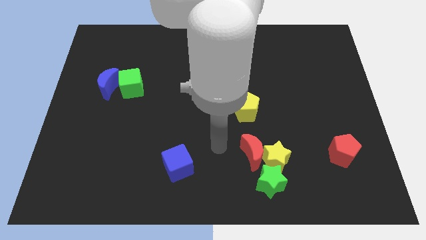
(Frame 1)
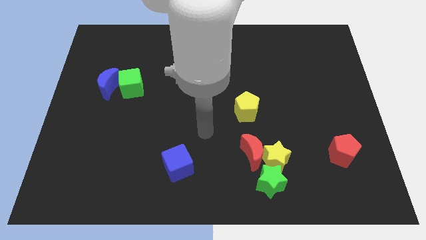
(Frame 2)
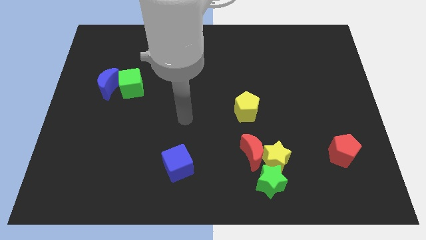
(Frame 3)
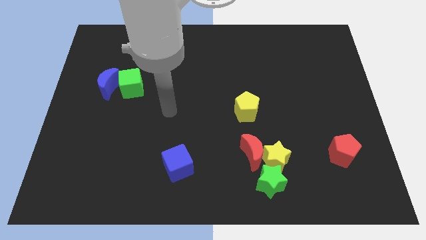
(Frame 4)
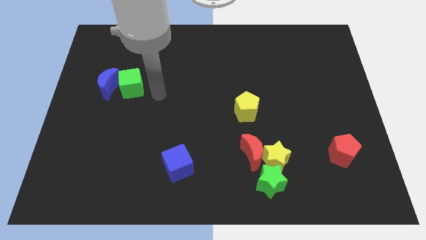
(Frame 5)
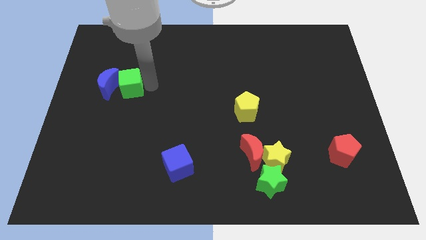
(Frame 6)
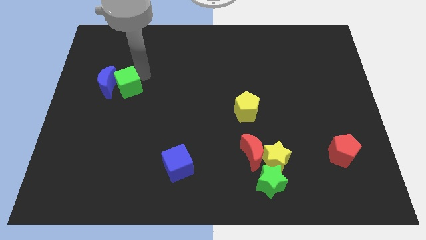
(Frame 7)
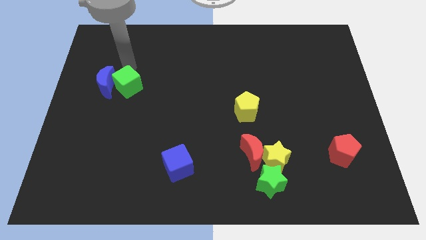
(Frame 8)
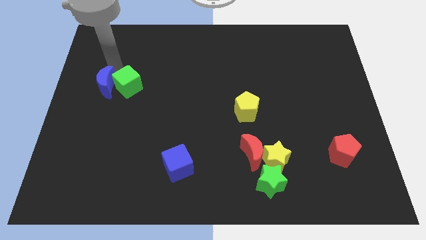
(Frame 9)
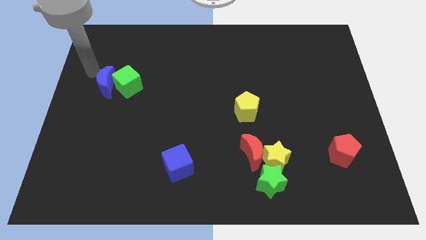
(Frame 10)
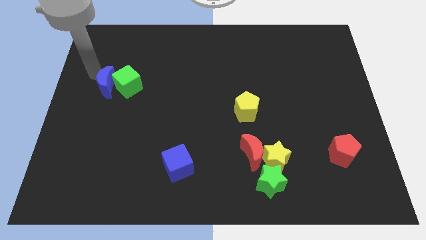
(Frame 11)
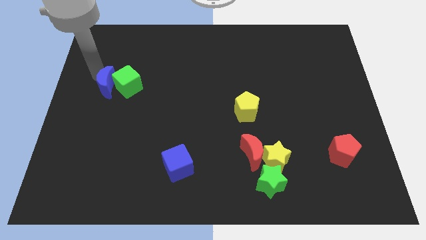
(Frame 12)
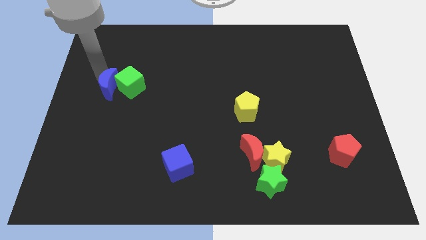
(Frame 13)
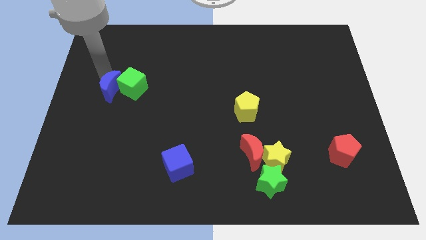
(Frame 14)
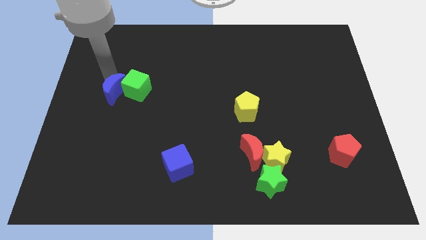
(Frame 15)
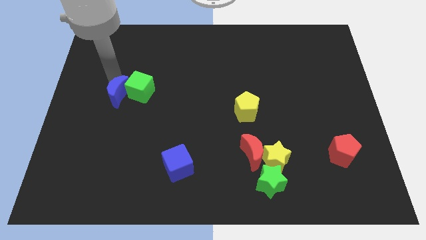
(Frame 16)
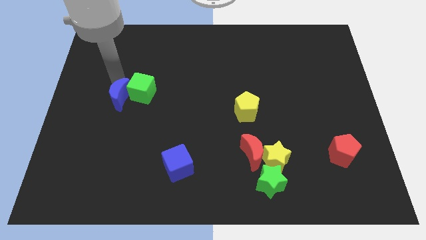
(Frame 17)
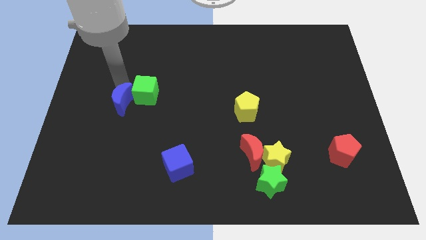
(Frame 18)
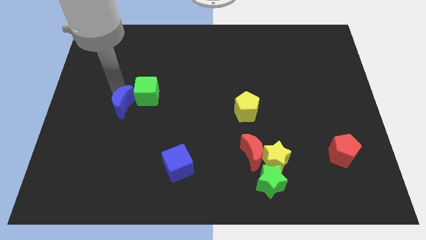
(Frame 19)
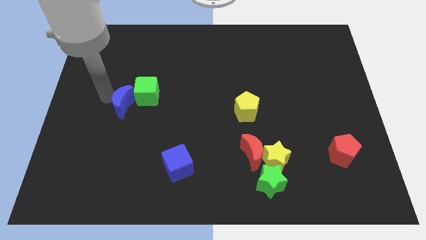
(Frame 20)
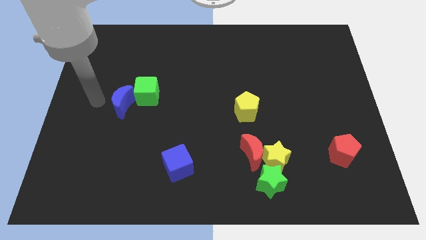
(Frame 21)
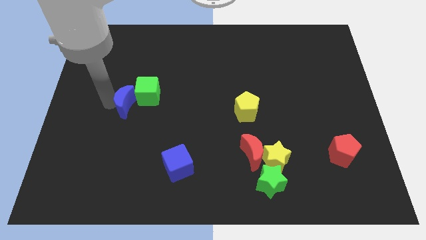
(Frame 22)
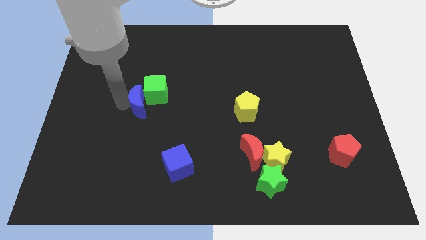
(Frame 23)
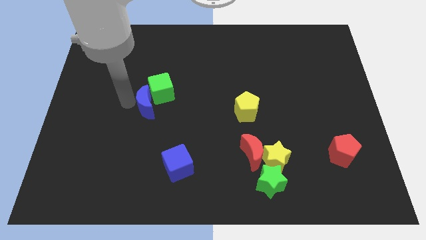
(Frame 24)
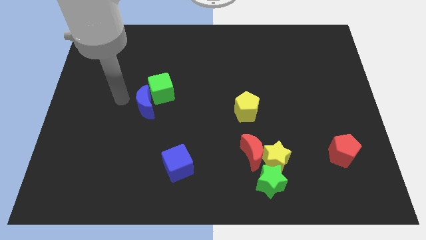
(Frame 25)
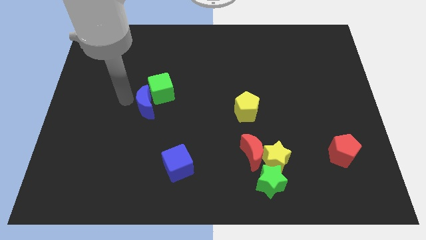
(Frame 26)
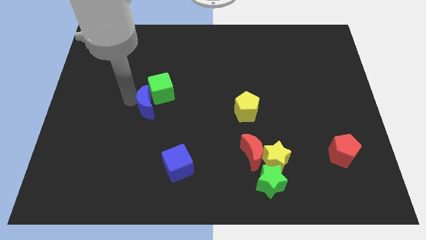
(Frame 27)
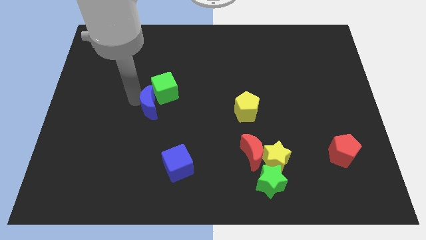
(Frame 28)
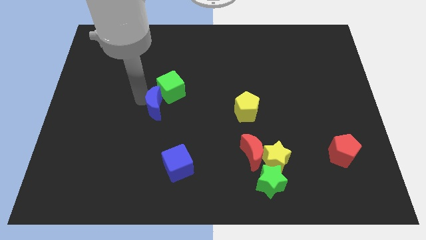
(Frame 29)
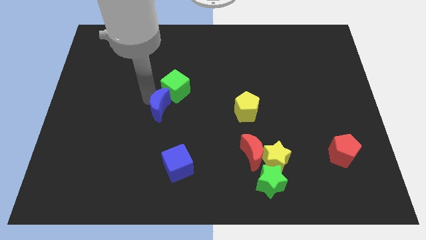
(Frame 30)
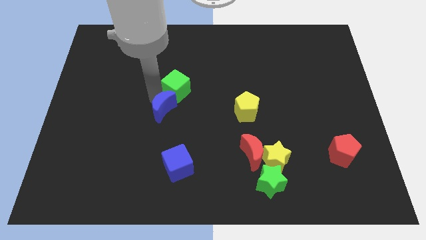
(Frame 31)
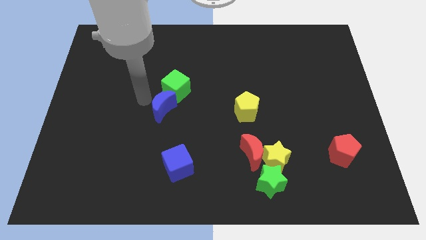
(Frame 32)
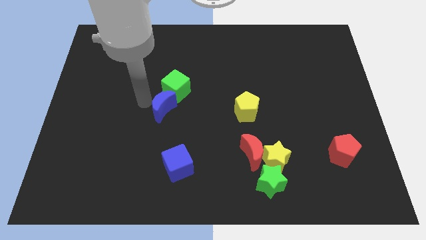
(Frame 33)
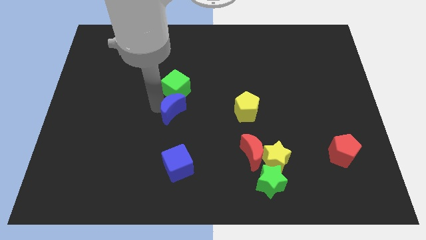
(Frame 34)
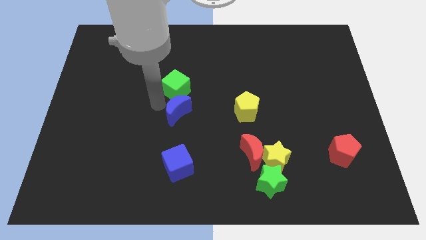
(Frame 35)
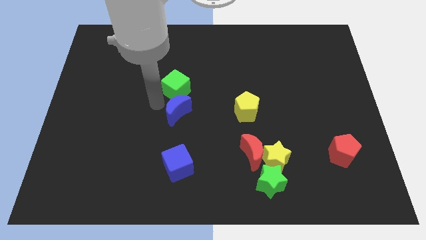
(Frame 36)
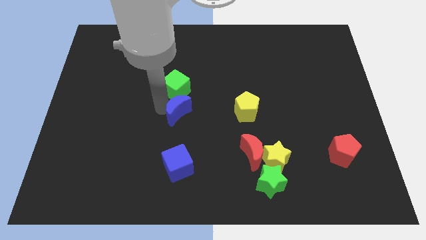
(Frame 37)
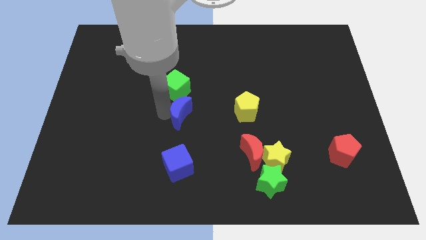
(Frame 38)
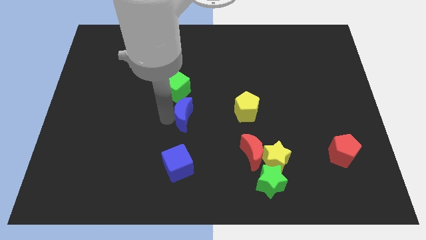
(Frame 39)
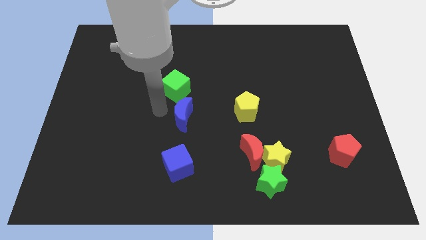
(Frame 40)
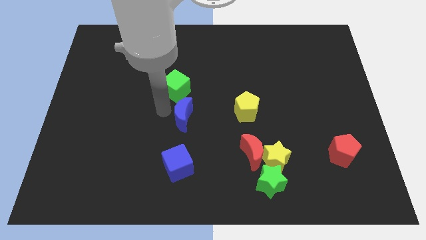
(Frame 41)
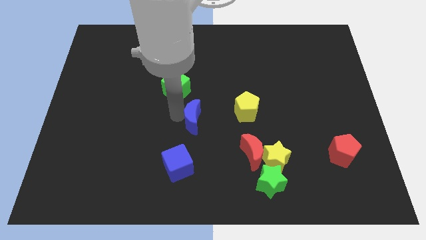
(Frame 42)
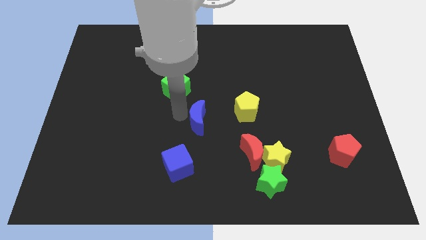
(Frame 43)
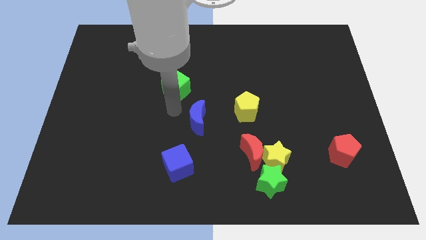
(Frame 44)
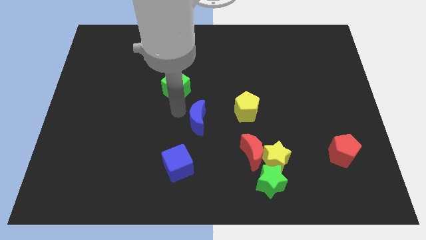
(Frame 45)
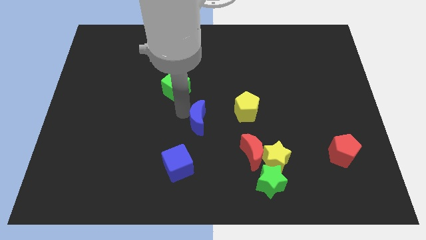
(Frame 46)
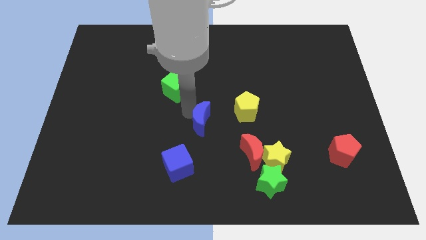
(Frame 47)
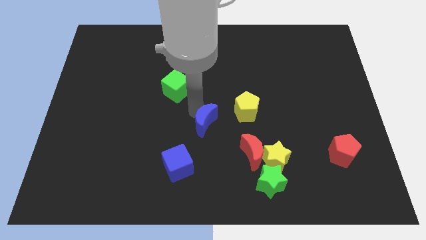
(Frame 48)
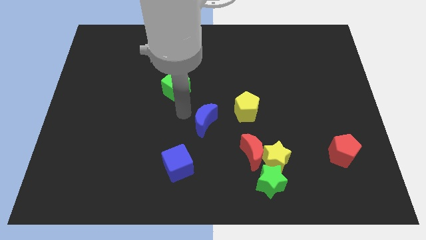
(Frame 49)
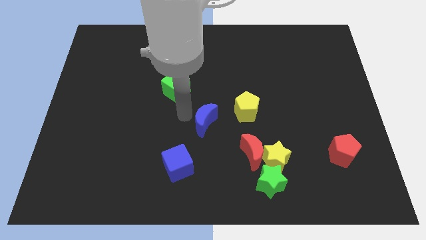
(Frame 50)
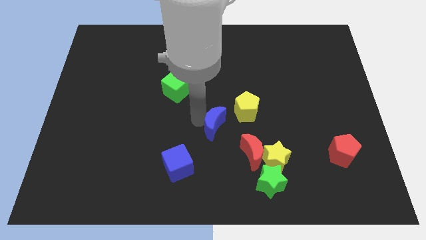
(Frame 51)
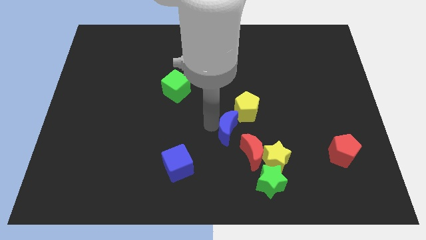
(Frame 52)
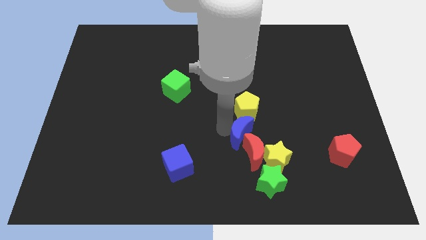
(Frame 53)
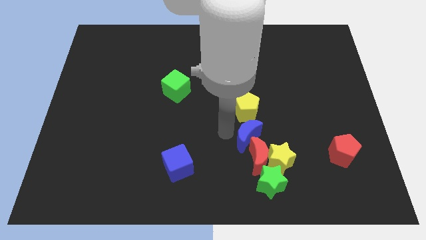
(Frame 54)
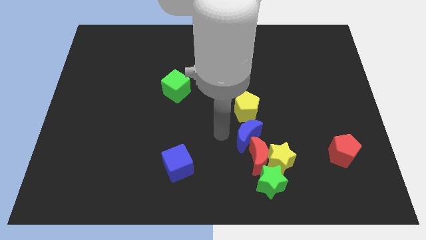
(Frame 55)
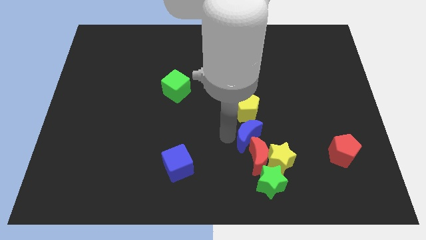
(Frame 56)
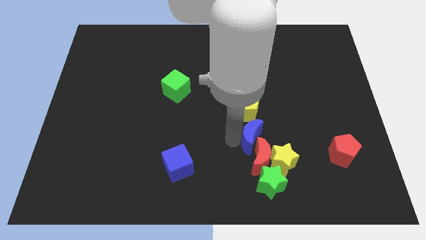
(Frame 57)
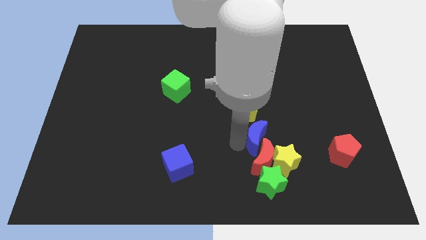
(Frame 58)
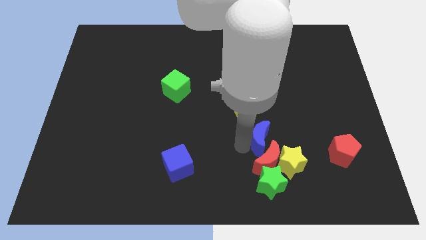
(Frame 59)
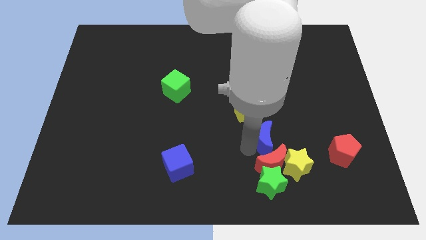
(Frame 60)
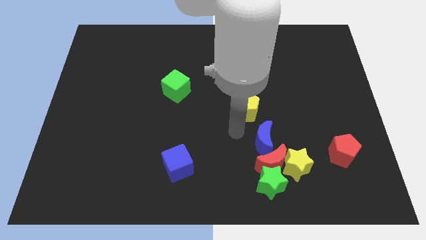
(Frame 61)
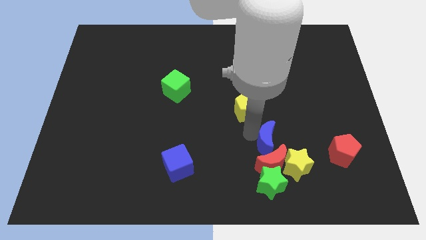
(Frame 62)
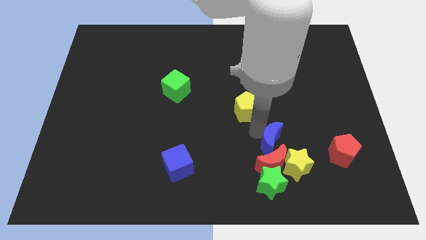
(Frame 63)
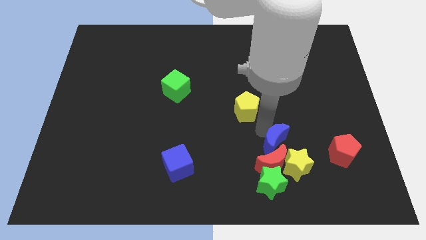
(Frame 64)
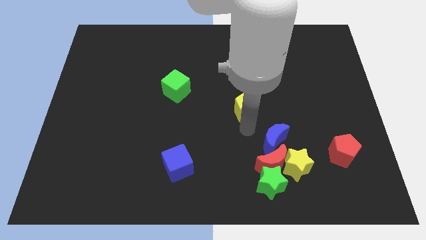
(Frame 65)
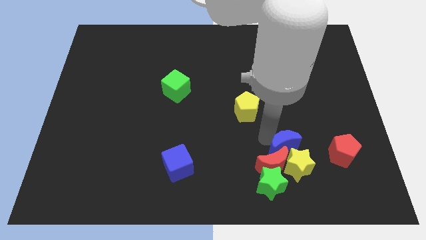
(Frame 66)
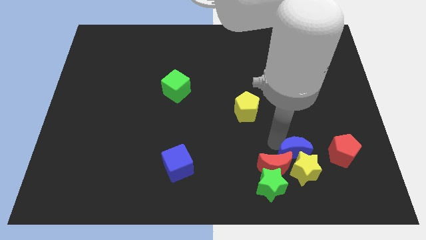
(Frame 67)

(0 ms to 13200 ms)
put the blue moon just right of the red moon

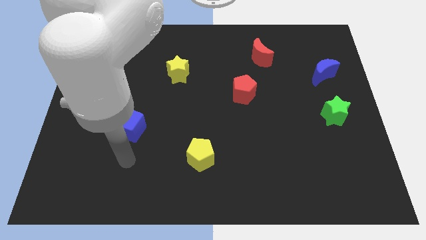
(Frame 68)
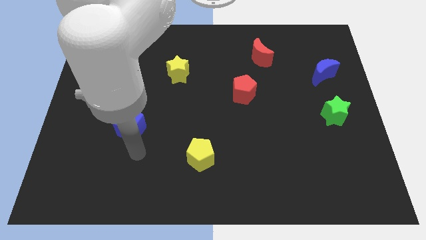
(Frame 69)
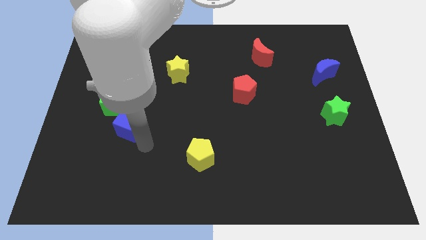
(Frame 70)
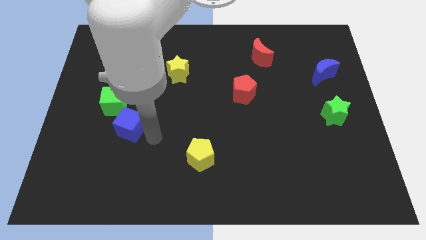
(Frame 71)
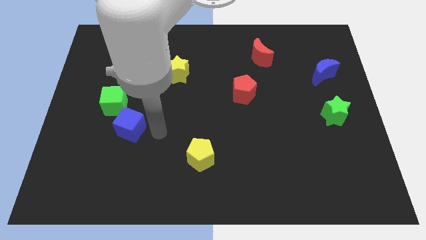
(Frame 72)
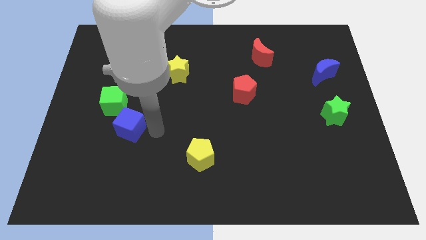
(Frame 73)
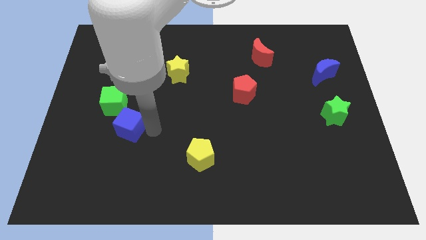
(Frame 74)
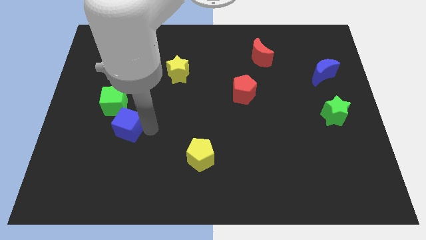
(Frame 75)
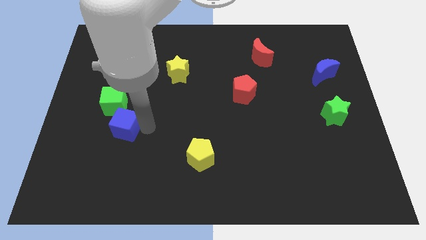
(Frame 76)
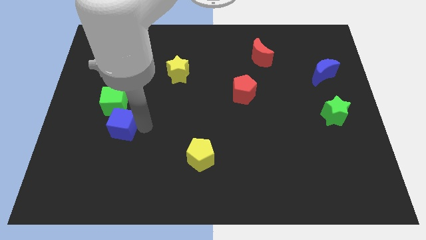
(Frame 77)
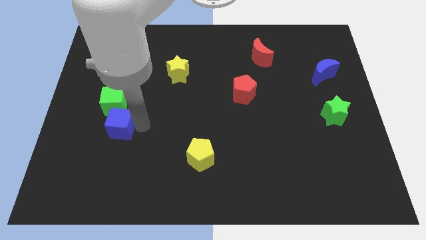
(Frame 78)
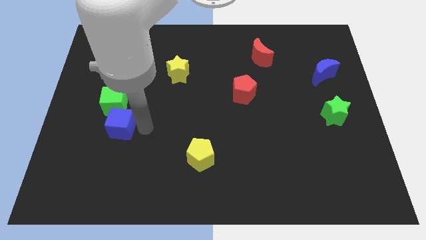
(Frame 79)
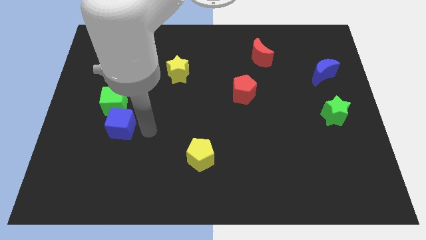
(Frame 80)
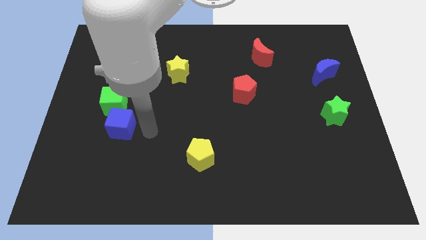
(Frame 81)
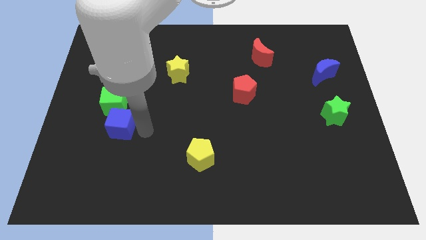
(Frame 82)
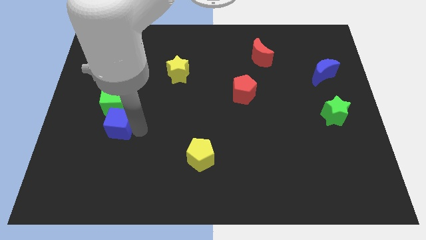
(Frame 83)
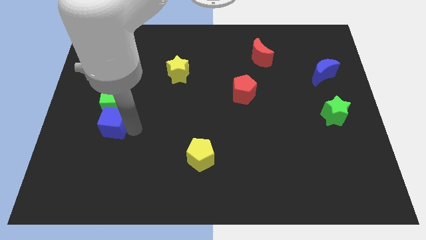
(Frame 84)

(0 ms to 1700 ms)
put the blue cube to the bottom left of the green cube
